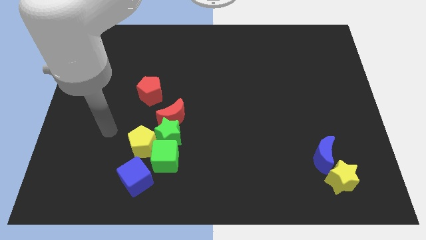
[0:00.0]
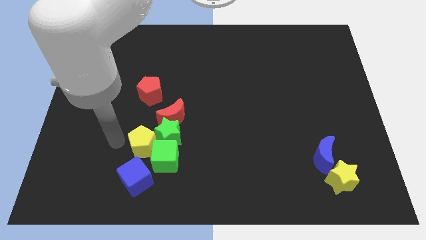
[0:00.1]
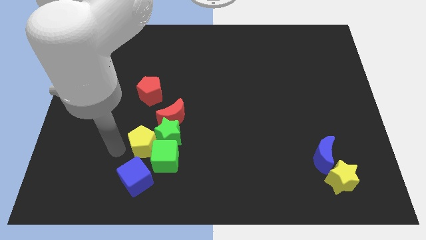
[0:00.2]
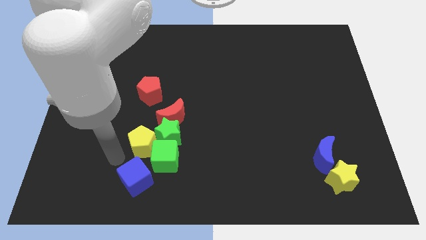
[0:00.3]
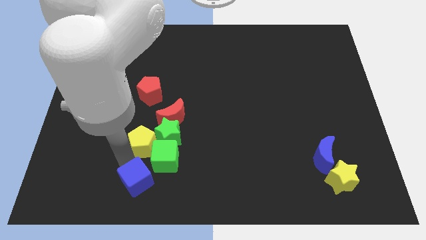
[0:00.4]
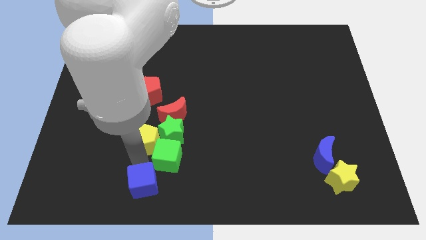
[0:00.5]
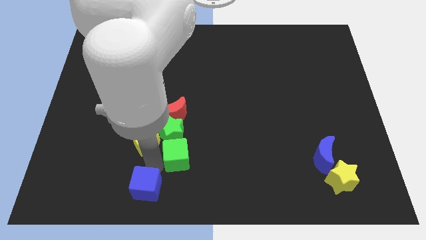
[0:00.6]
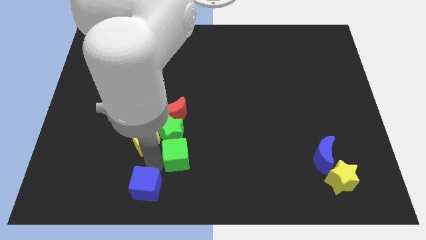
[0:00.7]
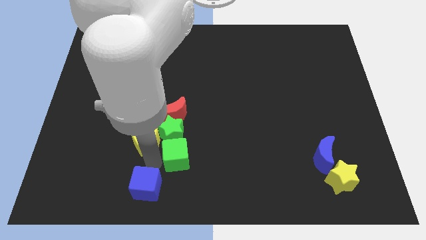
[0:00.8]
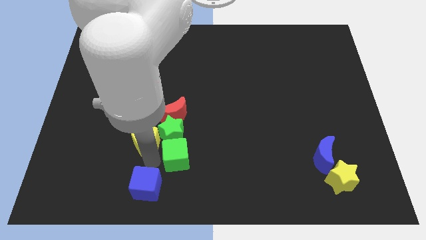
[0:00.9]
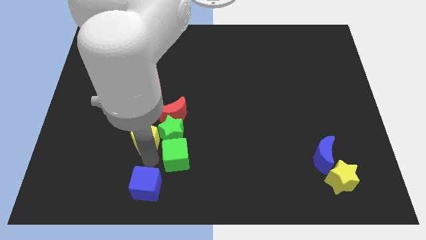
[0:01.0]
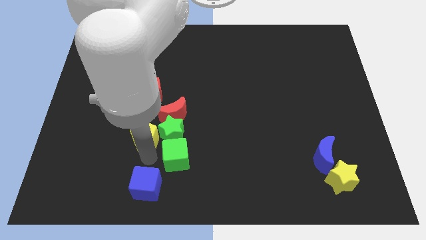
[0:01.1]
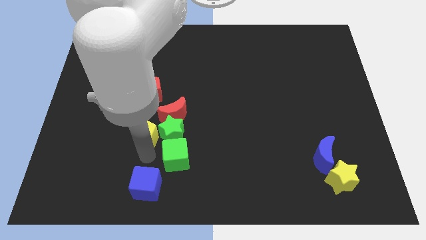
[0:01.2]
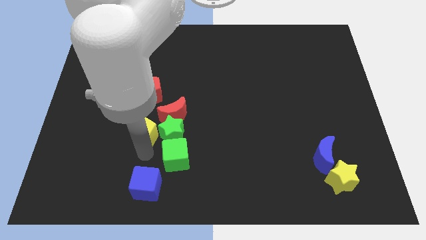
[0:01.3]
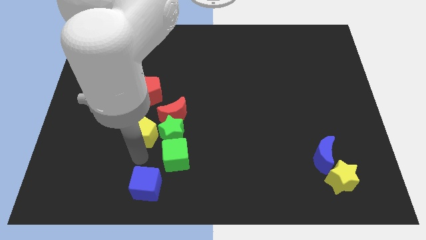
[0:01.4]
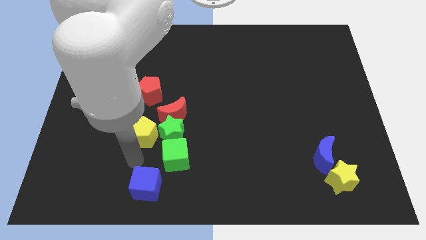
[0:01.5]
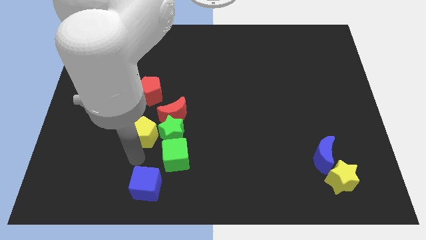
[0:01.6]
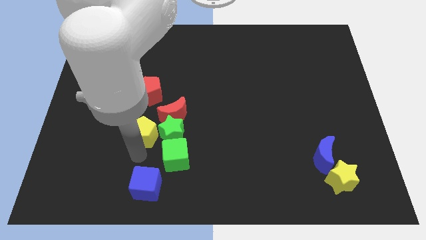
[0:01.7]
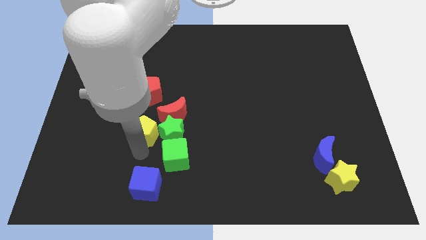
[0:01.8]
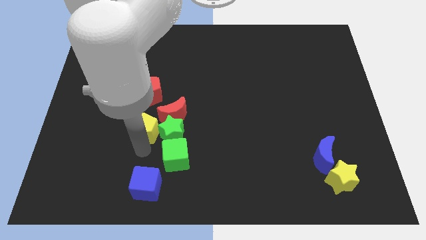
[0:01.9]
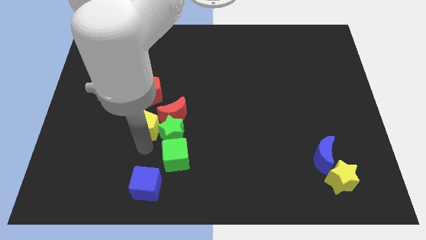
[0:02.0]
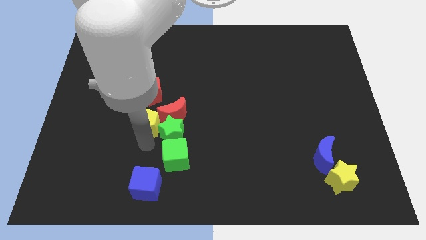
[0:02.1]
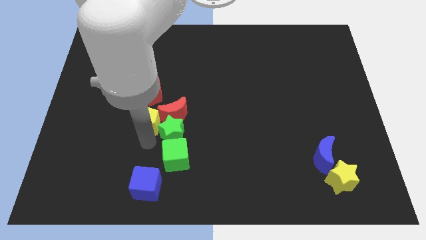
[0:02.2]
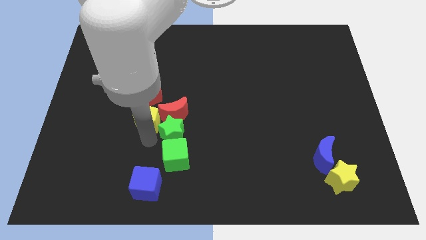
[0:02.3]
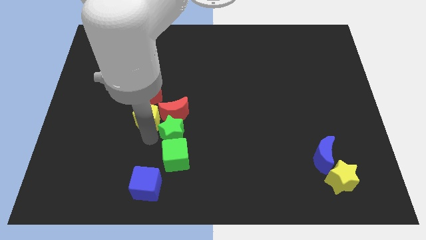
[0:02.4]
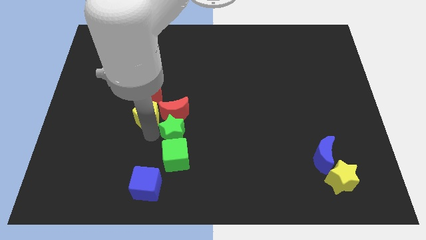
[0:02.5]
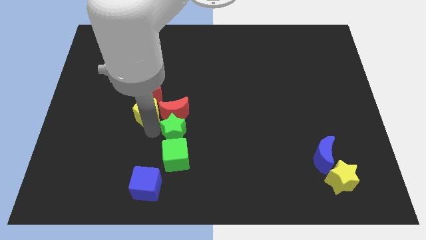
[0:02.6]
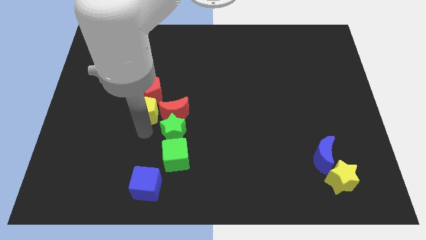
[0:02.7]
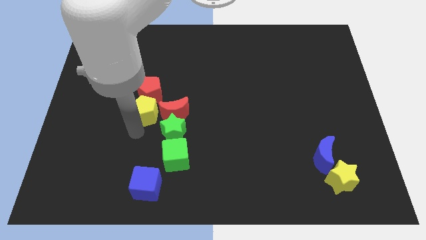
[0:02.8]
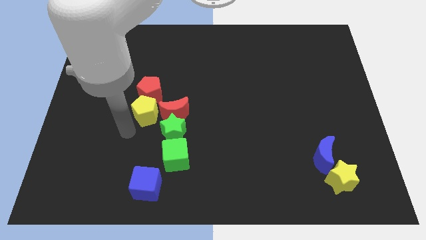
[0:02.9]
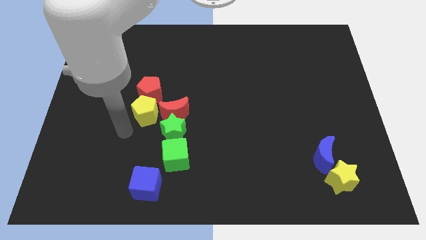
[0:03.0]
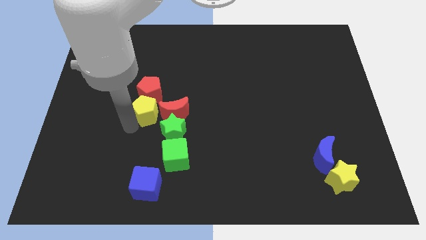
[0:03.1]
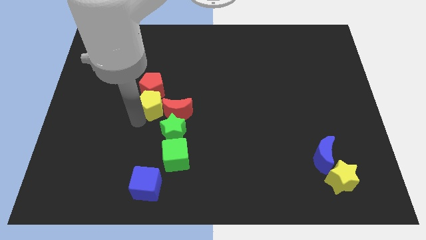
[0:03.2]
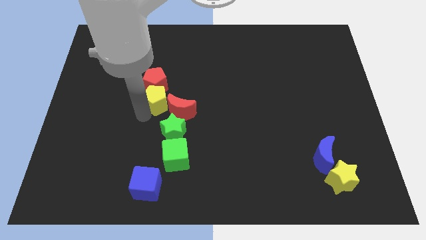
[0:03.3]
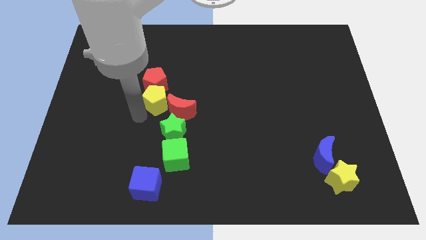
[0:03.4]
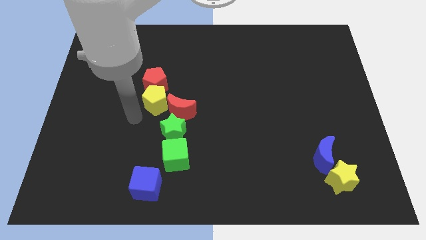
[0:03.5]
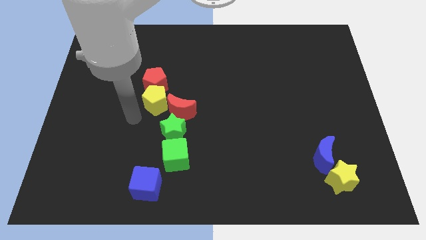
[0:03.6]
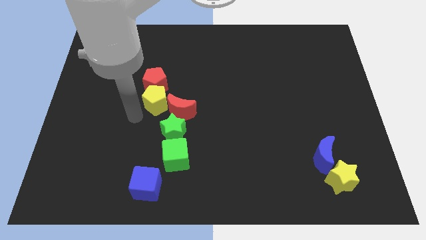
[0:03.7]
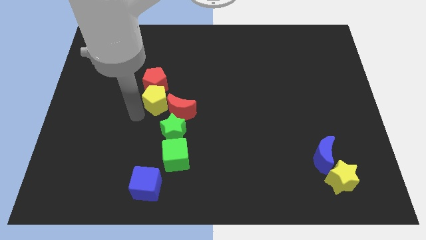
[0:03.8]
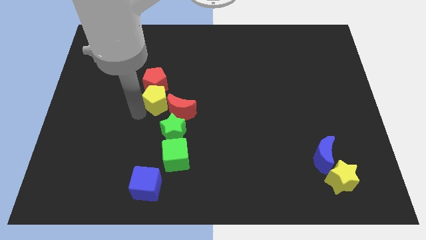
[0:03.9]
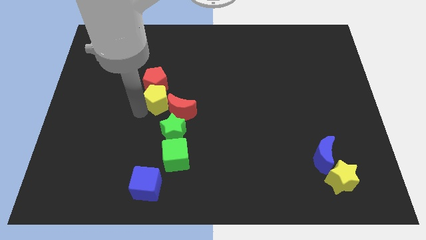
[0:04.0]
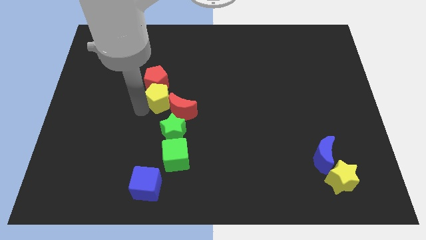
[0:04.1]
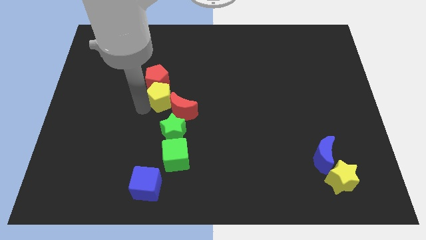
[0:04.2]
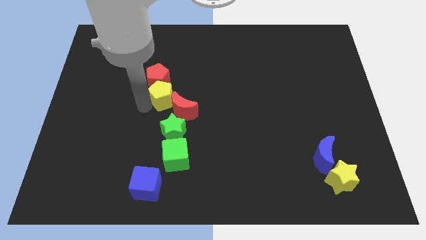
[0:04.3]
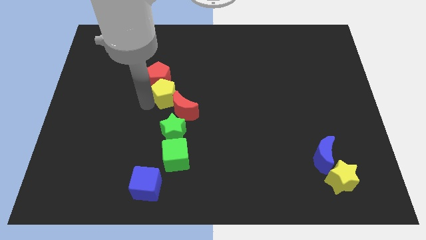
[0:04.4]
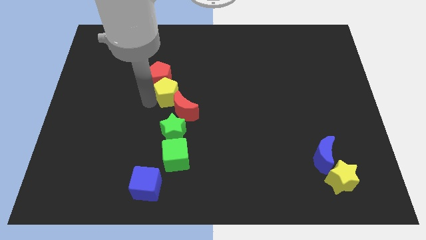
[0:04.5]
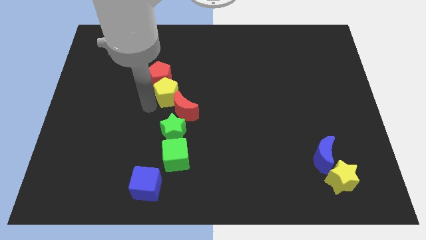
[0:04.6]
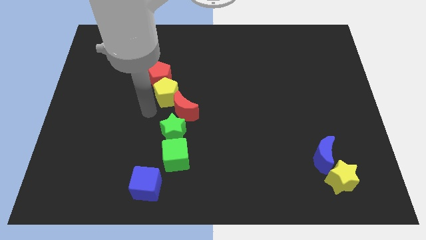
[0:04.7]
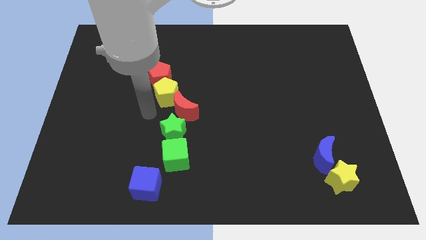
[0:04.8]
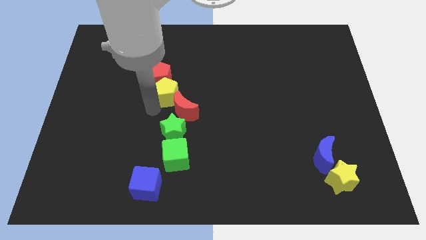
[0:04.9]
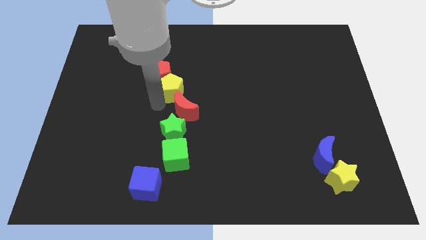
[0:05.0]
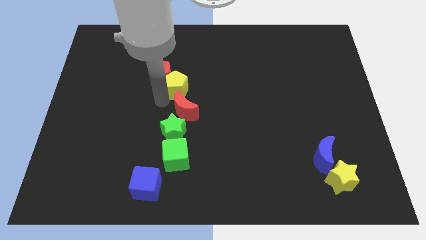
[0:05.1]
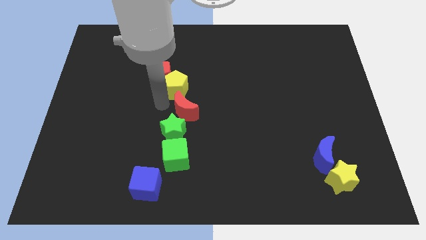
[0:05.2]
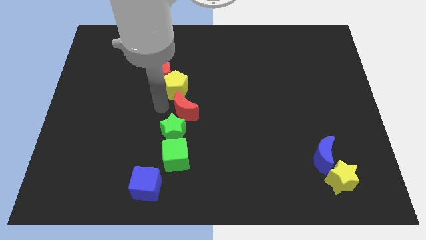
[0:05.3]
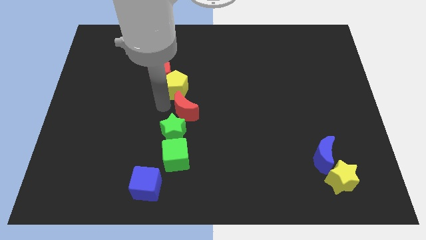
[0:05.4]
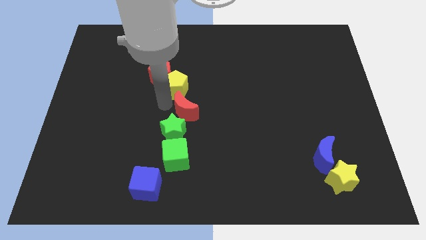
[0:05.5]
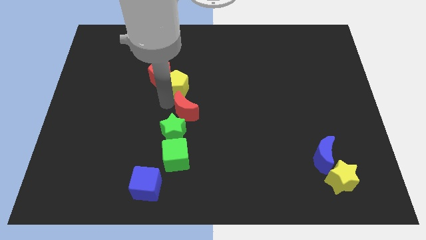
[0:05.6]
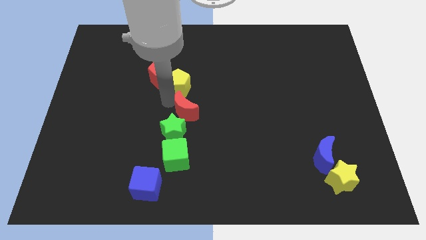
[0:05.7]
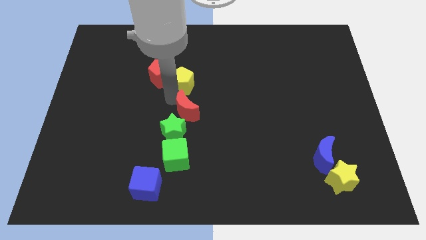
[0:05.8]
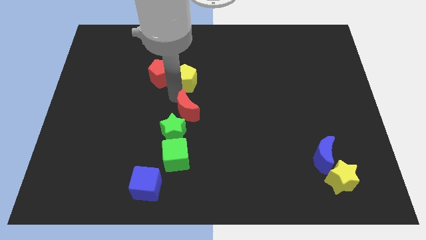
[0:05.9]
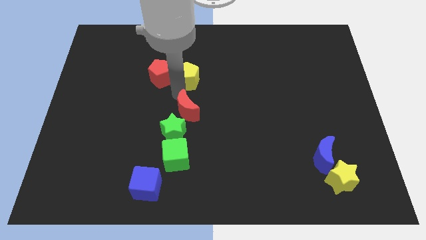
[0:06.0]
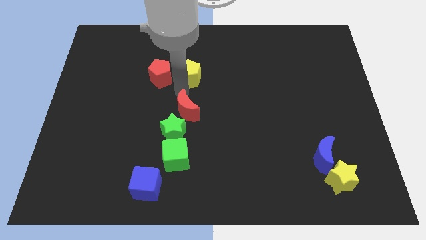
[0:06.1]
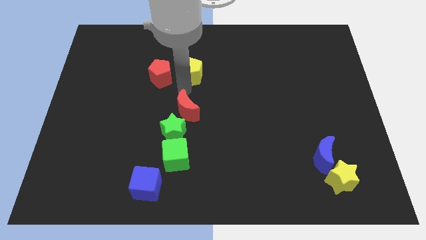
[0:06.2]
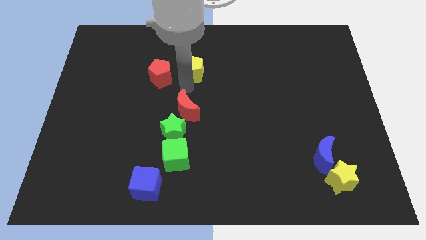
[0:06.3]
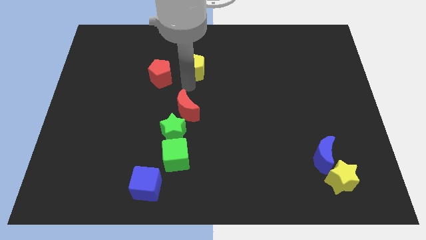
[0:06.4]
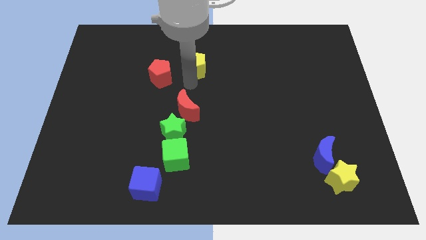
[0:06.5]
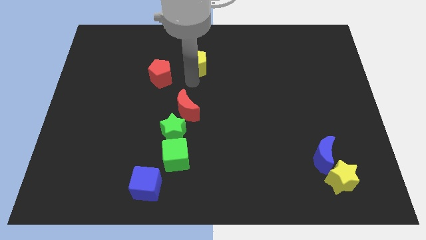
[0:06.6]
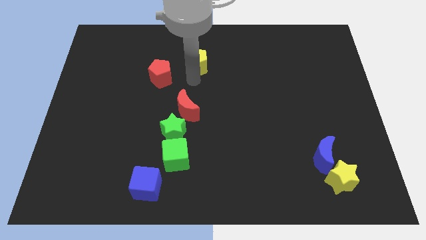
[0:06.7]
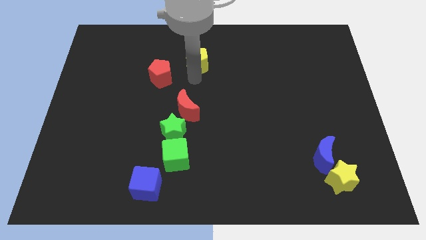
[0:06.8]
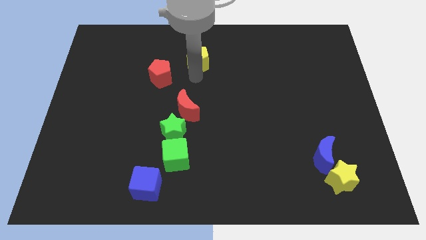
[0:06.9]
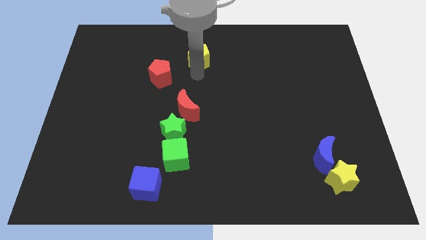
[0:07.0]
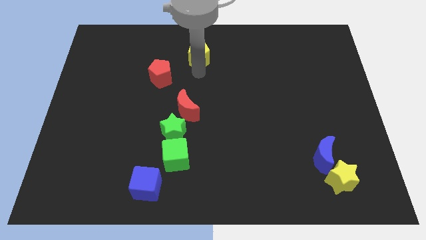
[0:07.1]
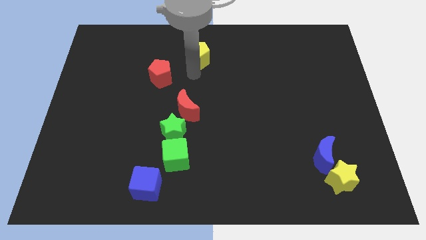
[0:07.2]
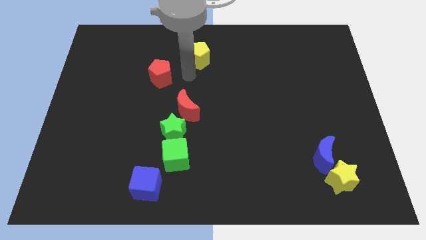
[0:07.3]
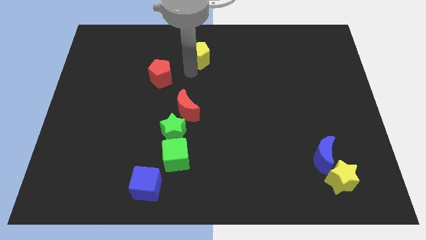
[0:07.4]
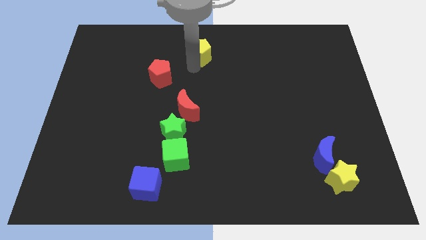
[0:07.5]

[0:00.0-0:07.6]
push the yellow pentagon to the top
